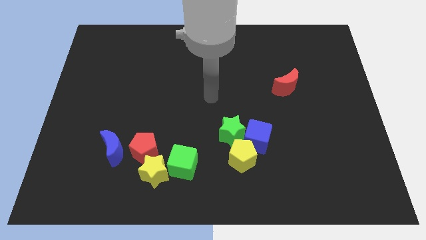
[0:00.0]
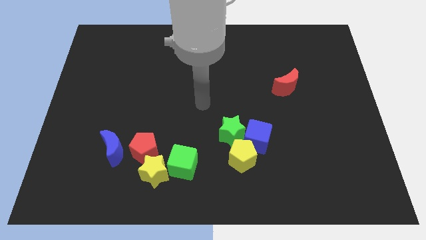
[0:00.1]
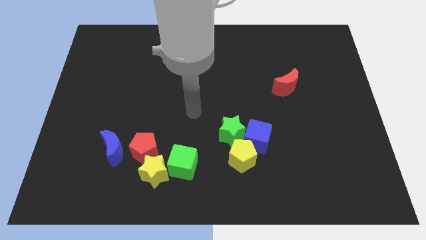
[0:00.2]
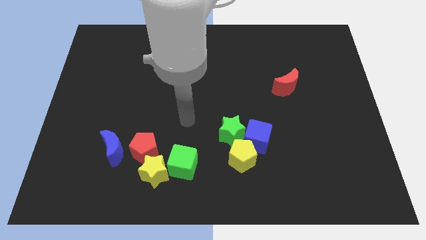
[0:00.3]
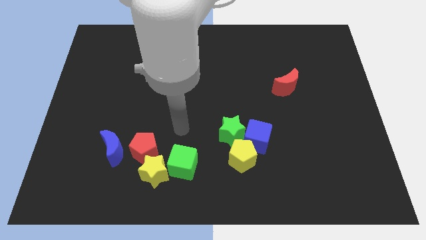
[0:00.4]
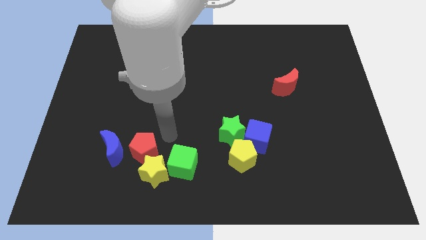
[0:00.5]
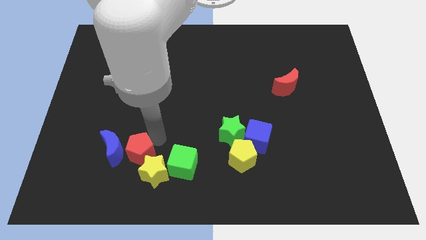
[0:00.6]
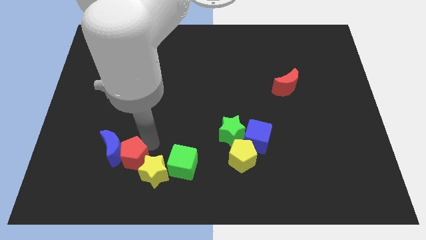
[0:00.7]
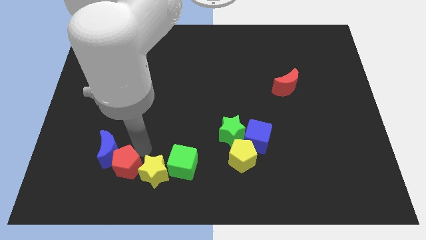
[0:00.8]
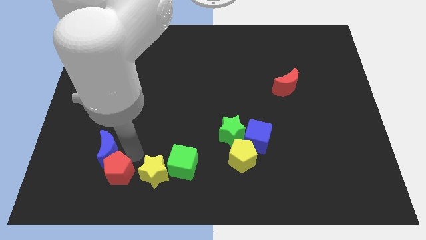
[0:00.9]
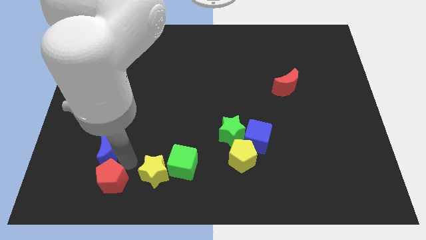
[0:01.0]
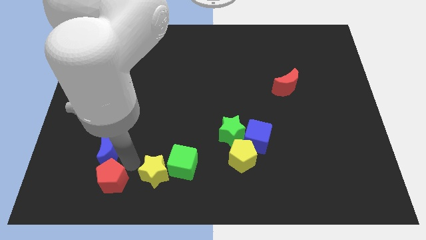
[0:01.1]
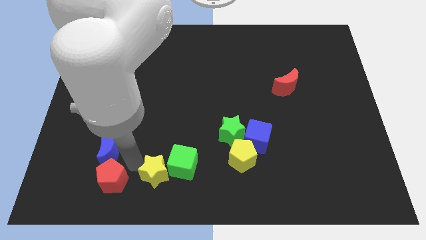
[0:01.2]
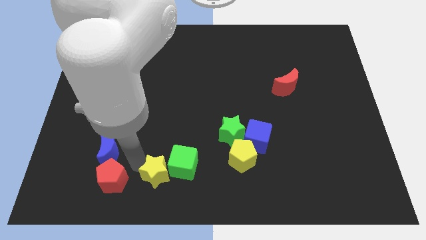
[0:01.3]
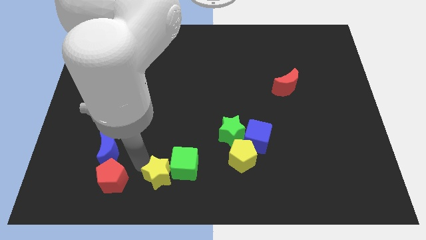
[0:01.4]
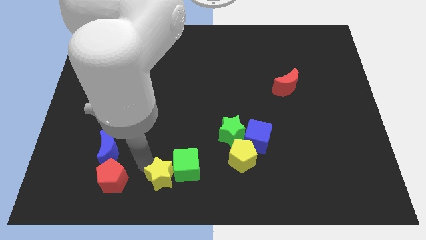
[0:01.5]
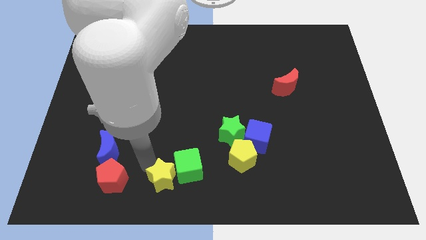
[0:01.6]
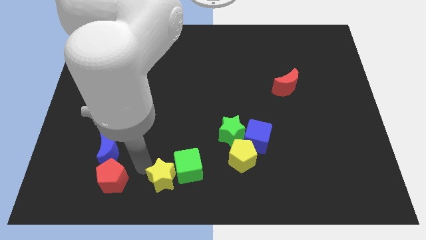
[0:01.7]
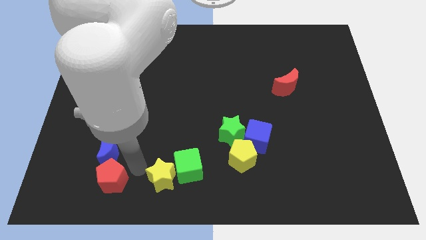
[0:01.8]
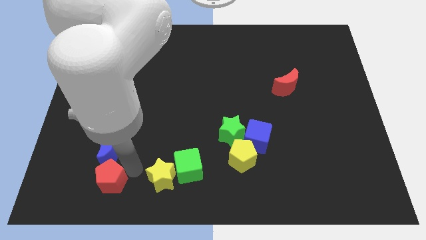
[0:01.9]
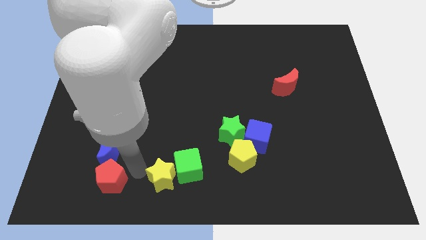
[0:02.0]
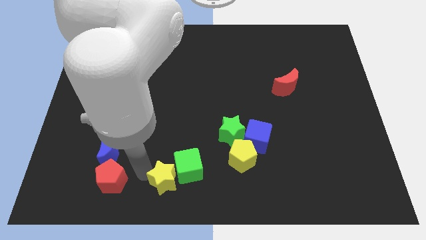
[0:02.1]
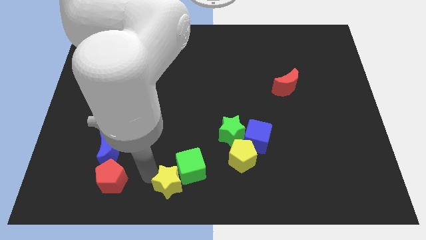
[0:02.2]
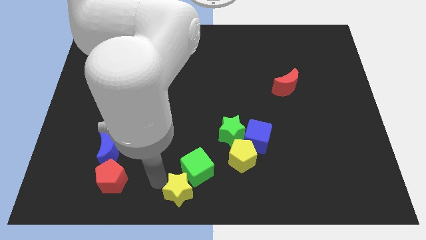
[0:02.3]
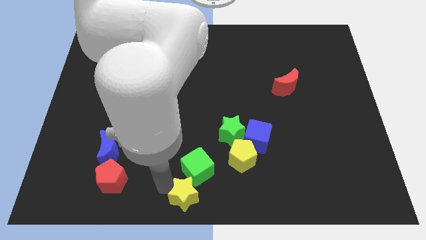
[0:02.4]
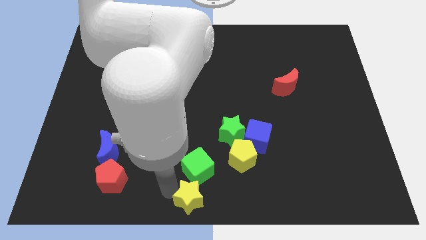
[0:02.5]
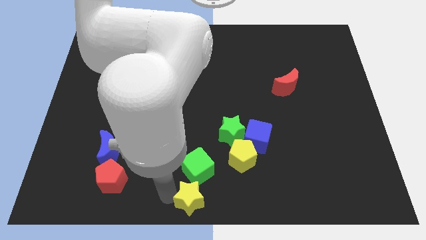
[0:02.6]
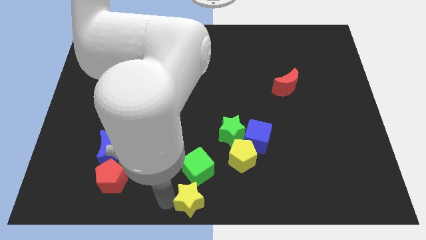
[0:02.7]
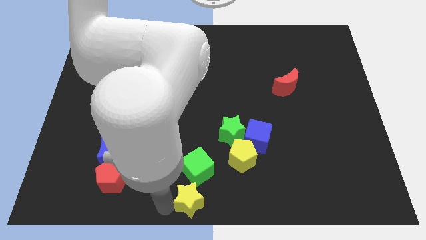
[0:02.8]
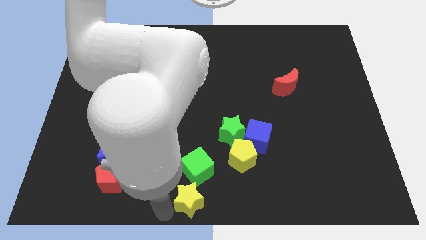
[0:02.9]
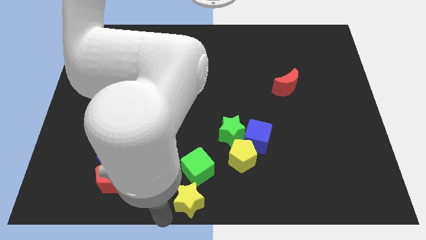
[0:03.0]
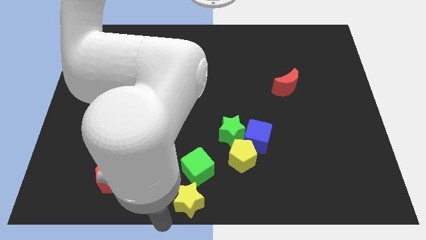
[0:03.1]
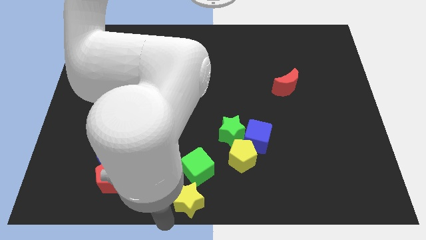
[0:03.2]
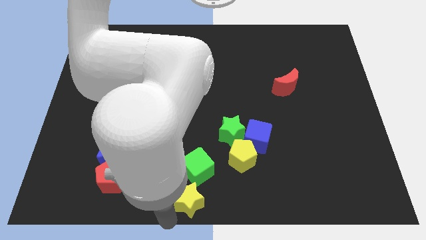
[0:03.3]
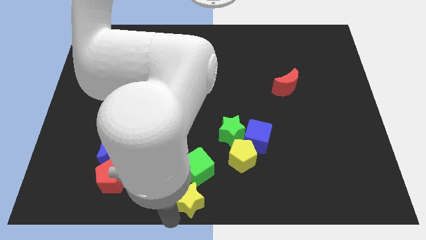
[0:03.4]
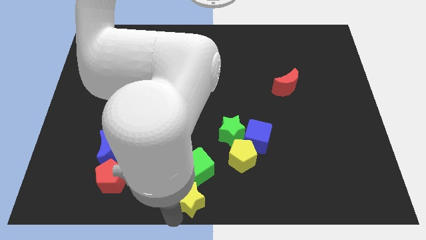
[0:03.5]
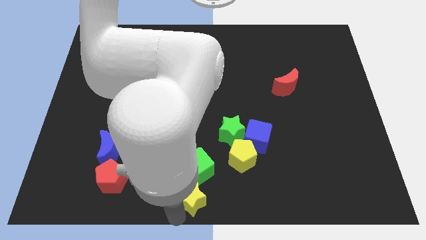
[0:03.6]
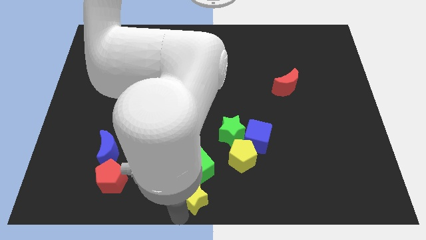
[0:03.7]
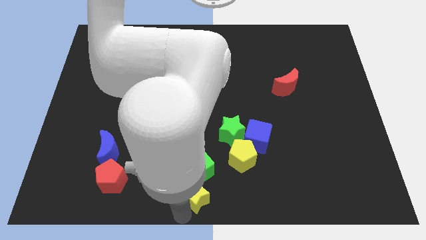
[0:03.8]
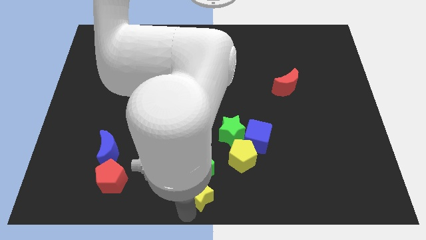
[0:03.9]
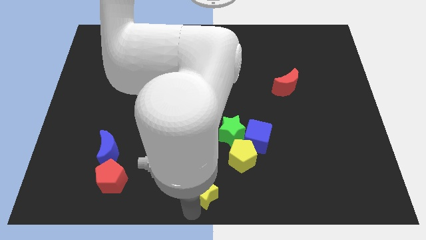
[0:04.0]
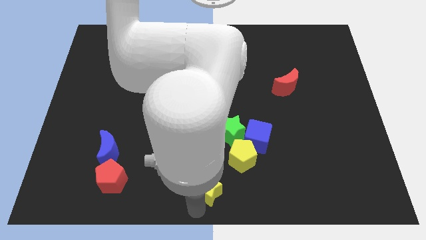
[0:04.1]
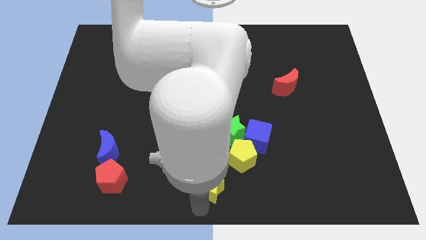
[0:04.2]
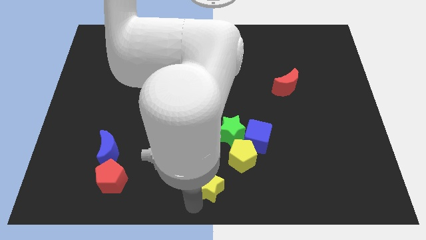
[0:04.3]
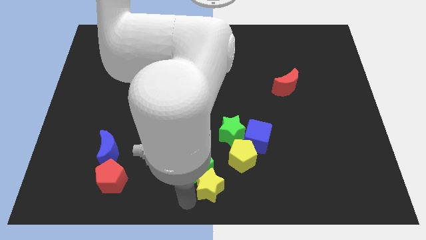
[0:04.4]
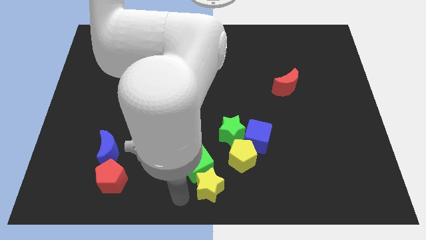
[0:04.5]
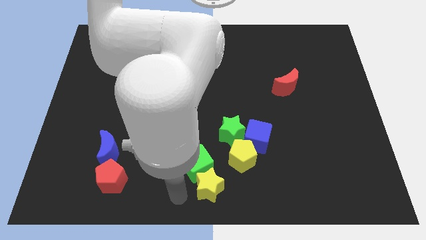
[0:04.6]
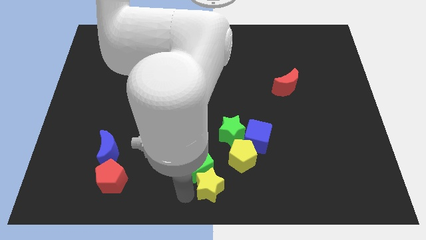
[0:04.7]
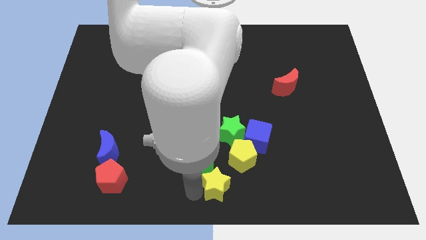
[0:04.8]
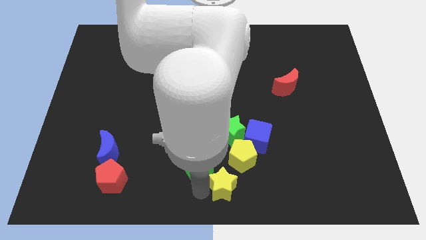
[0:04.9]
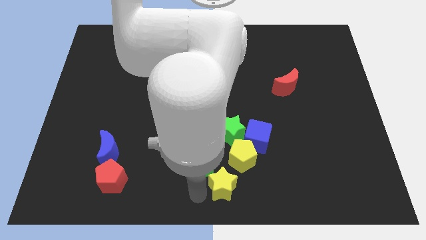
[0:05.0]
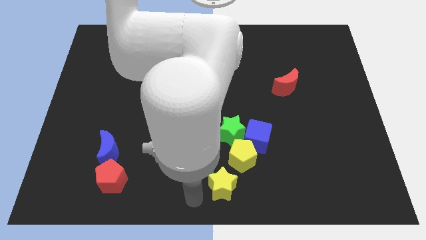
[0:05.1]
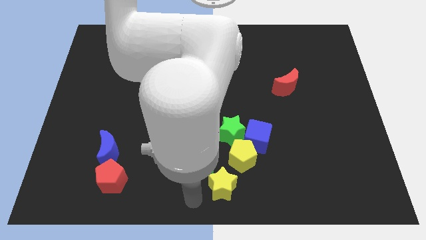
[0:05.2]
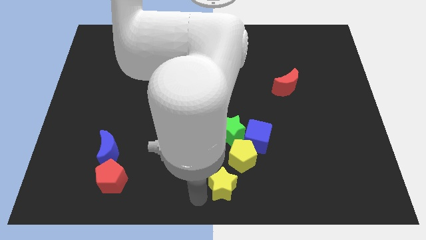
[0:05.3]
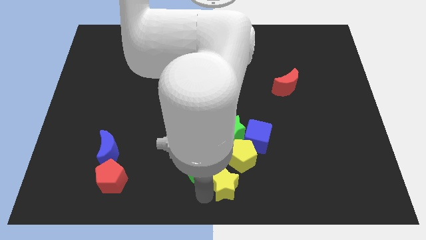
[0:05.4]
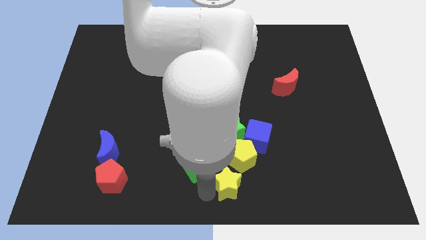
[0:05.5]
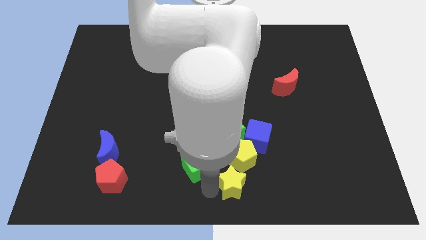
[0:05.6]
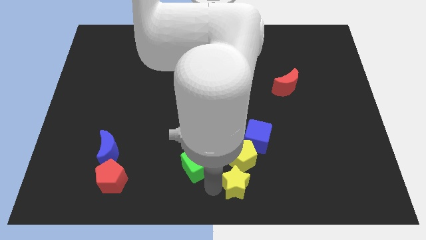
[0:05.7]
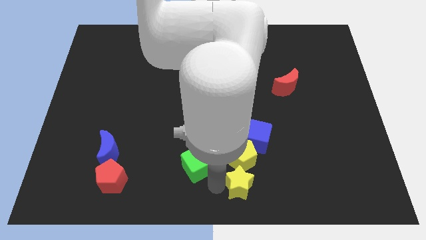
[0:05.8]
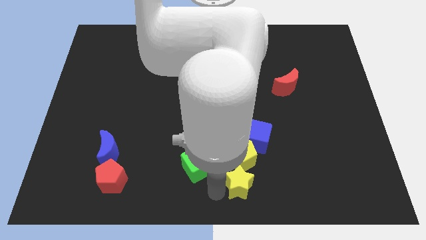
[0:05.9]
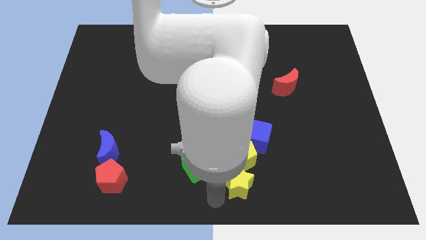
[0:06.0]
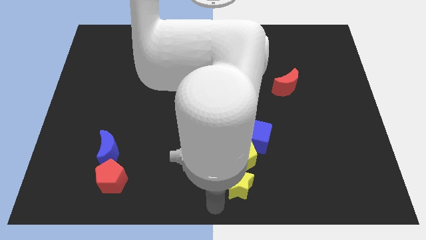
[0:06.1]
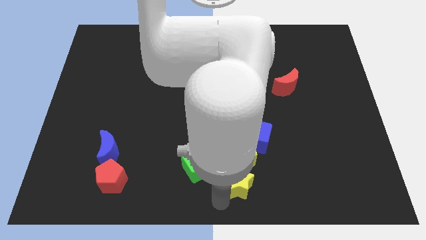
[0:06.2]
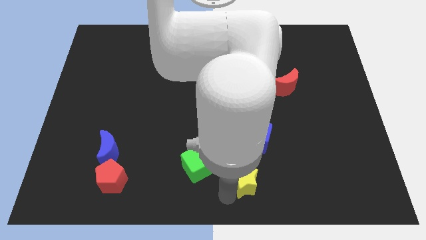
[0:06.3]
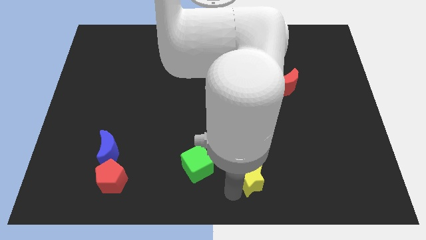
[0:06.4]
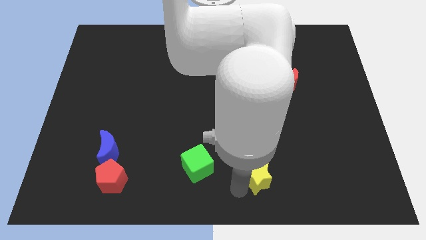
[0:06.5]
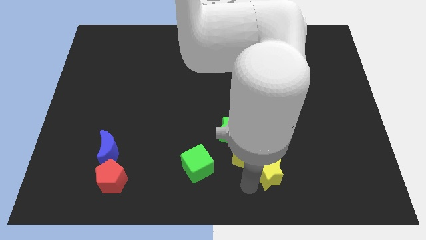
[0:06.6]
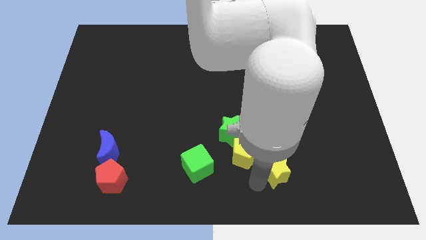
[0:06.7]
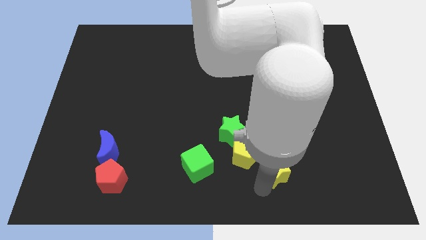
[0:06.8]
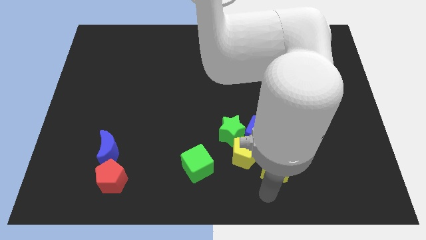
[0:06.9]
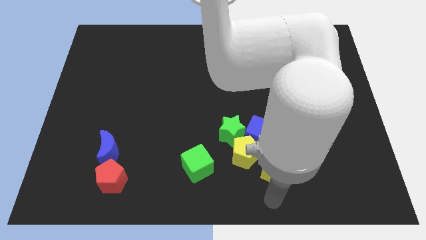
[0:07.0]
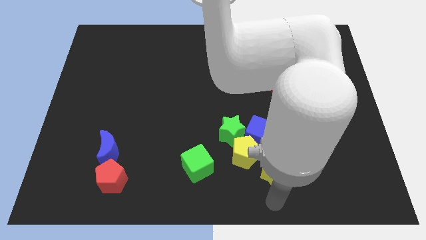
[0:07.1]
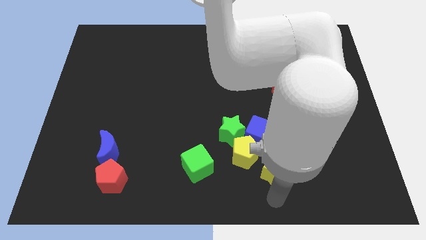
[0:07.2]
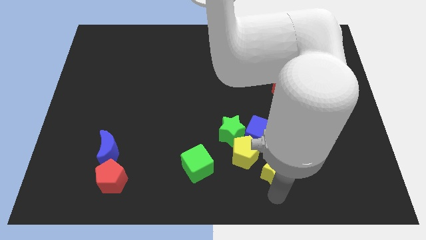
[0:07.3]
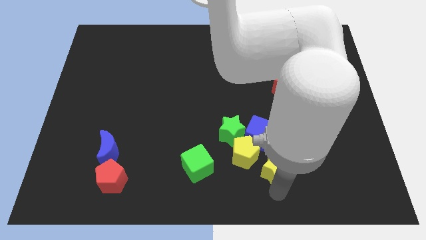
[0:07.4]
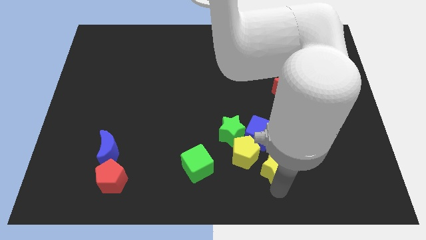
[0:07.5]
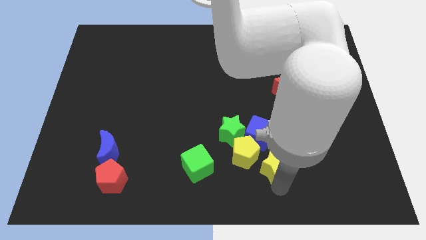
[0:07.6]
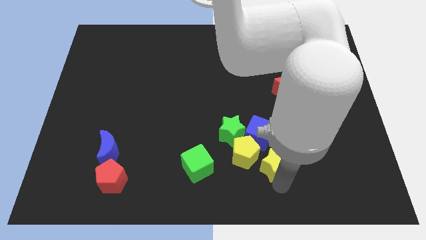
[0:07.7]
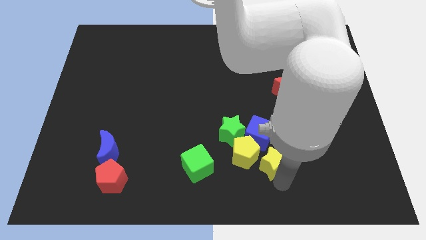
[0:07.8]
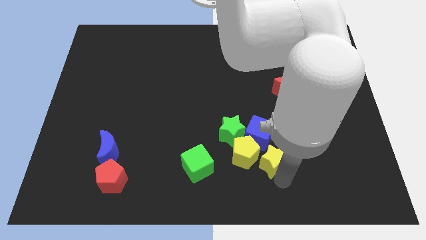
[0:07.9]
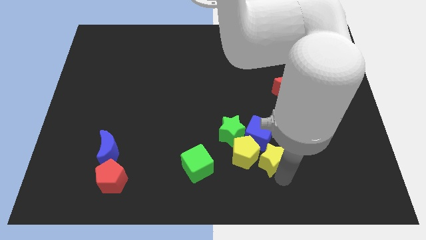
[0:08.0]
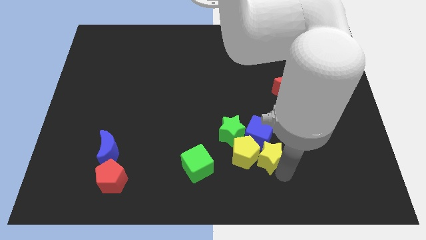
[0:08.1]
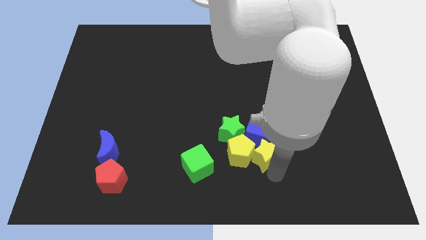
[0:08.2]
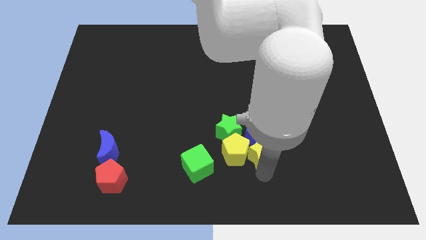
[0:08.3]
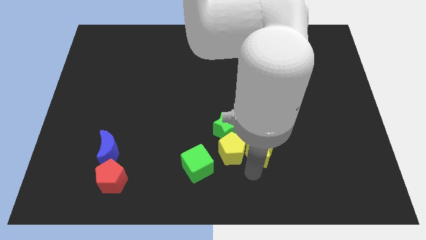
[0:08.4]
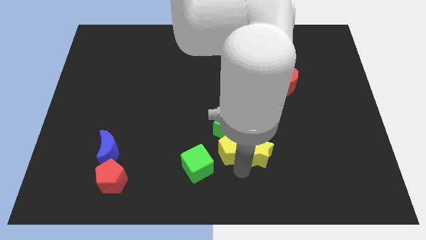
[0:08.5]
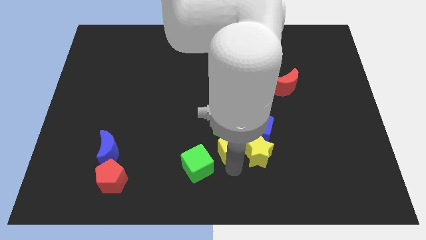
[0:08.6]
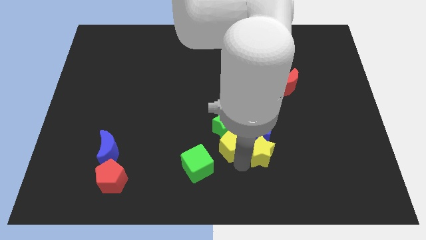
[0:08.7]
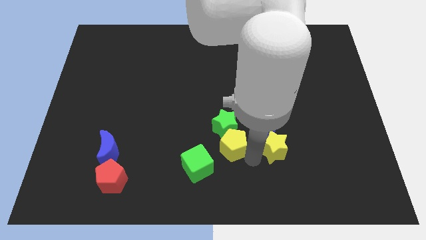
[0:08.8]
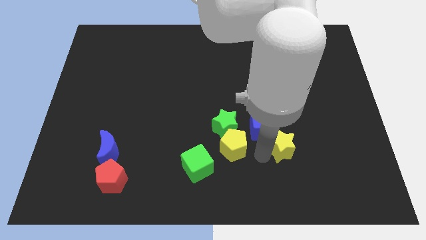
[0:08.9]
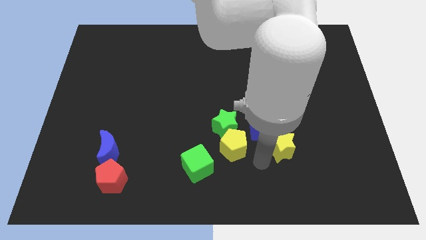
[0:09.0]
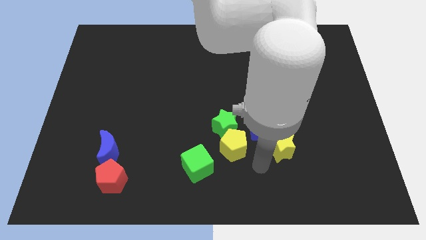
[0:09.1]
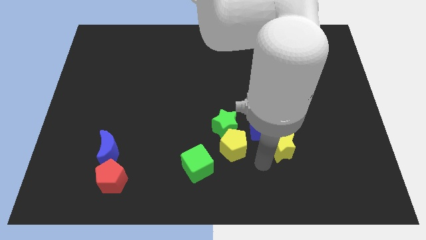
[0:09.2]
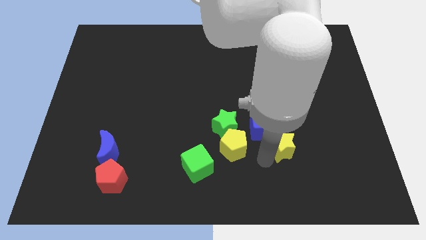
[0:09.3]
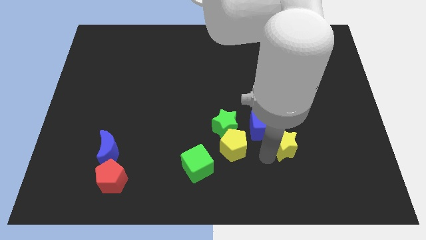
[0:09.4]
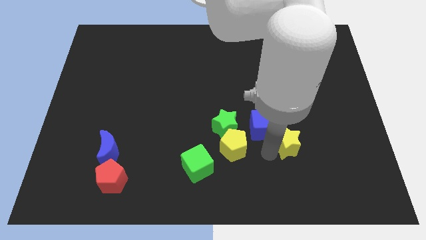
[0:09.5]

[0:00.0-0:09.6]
put the yellow star right of the blue cube
